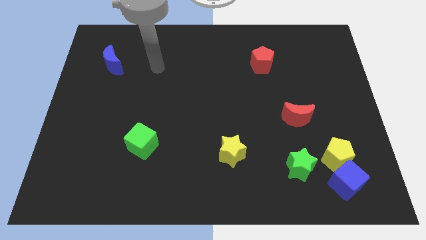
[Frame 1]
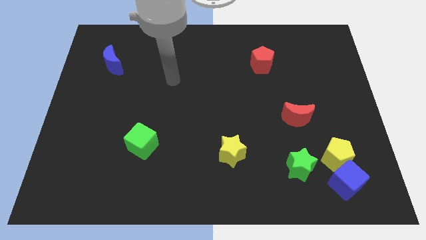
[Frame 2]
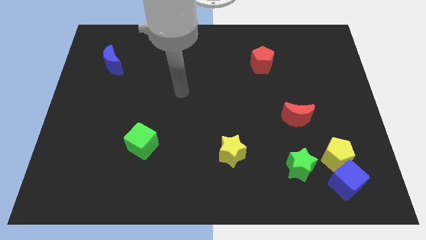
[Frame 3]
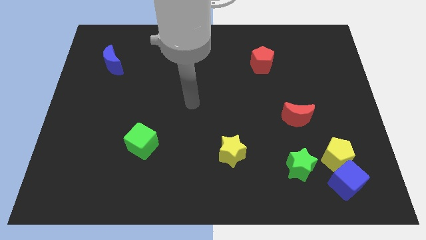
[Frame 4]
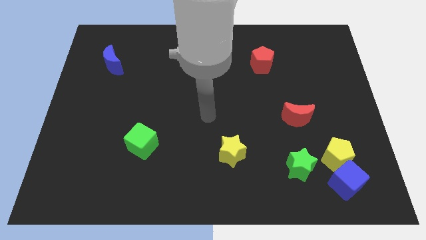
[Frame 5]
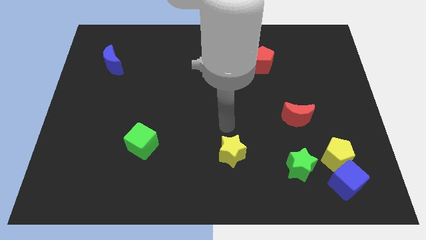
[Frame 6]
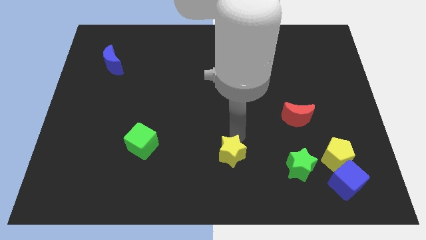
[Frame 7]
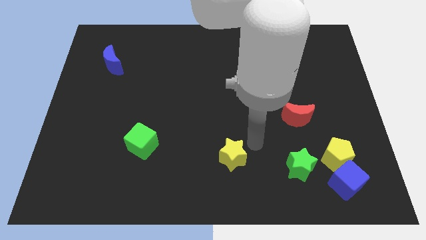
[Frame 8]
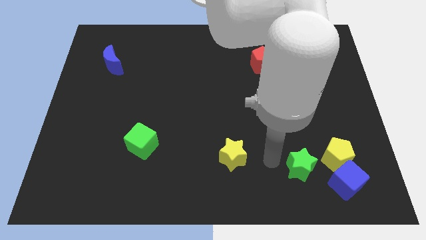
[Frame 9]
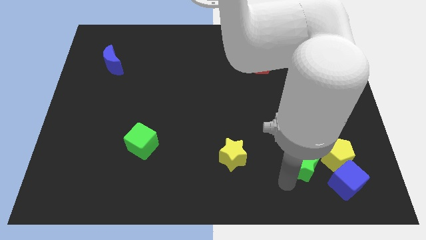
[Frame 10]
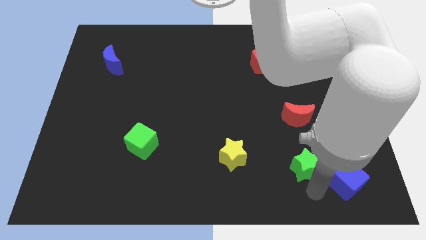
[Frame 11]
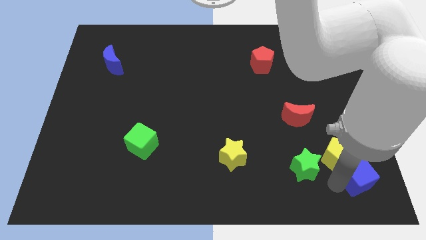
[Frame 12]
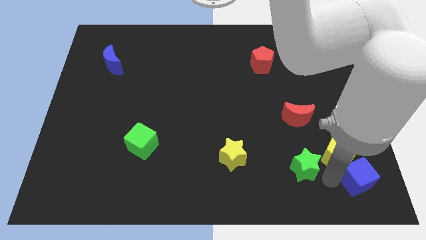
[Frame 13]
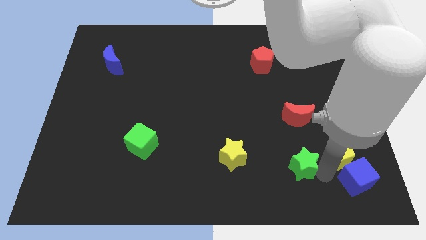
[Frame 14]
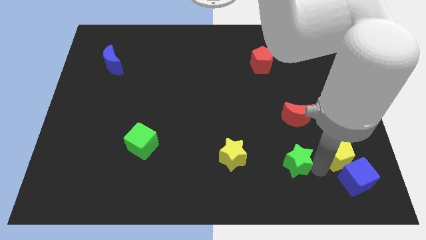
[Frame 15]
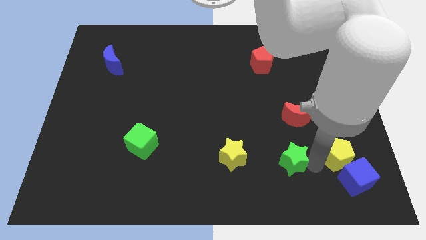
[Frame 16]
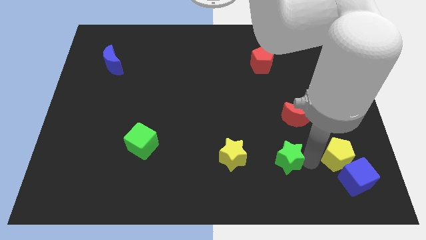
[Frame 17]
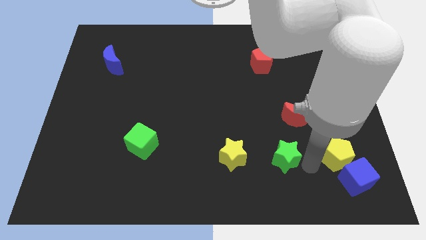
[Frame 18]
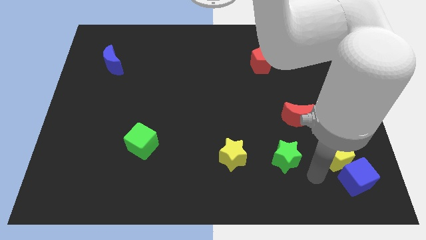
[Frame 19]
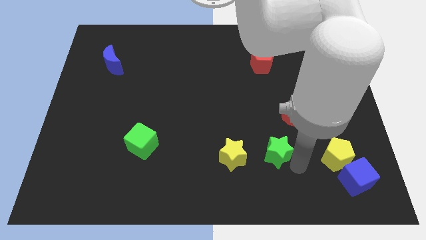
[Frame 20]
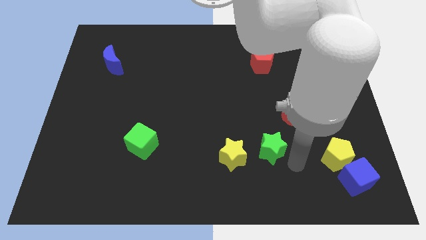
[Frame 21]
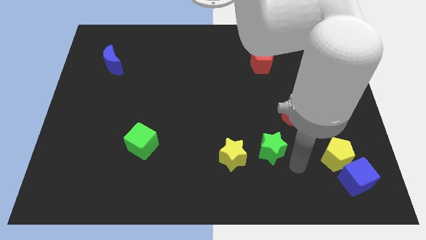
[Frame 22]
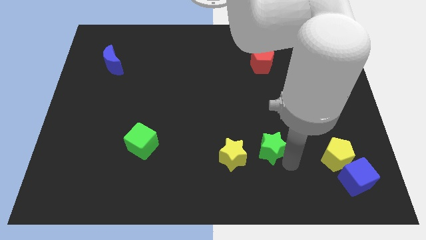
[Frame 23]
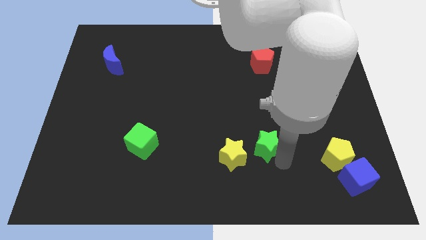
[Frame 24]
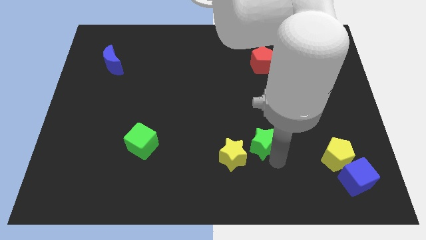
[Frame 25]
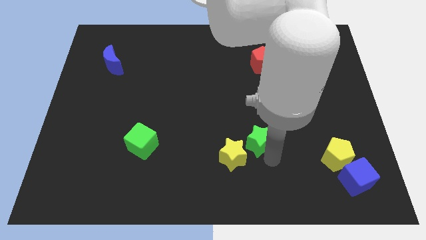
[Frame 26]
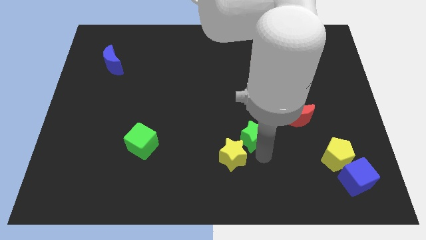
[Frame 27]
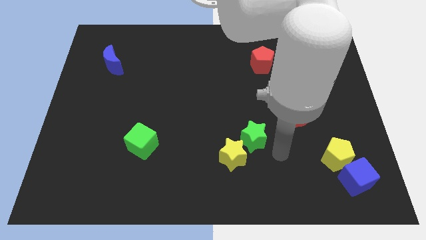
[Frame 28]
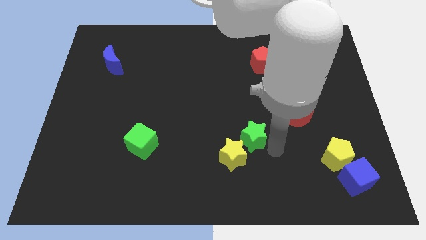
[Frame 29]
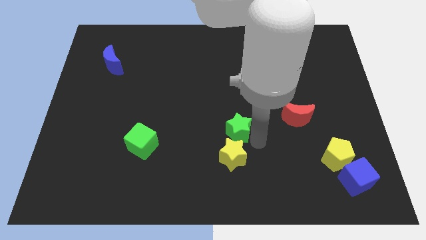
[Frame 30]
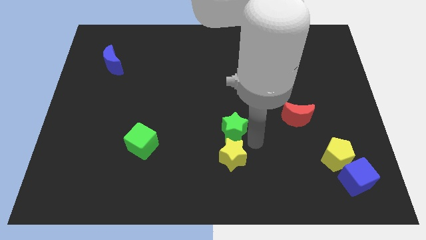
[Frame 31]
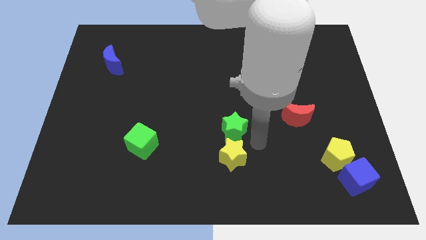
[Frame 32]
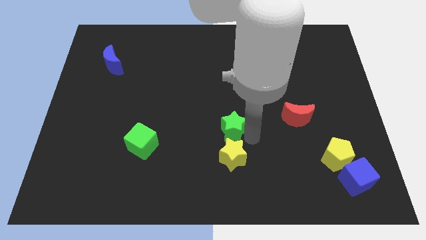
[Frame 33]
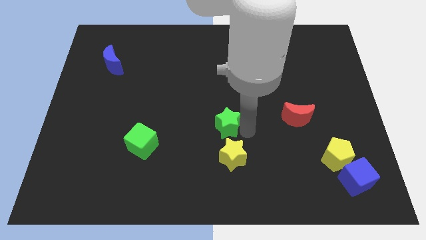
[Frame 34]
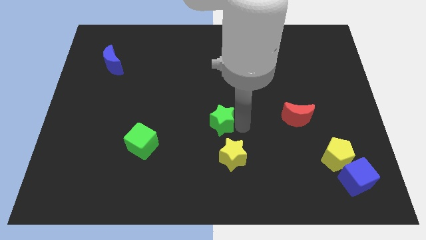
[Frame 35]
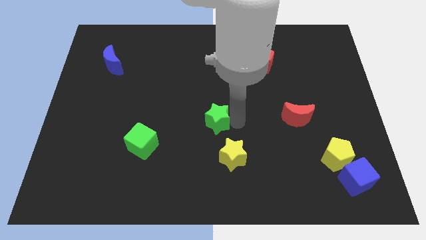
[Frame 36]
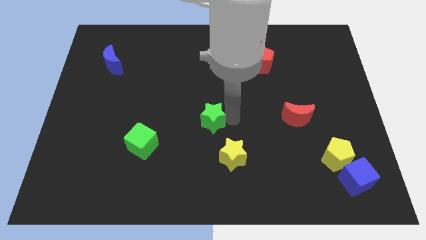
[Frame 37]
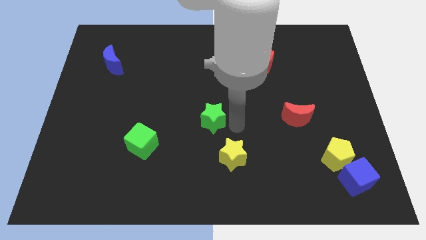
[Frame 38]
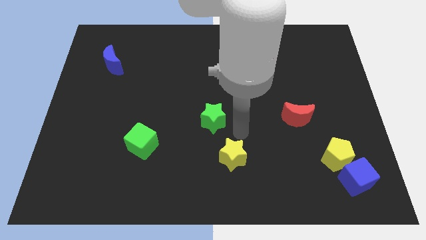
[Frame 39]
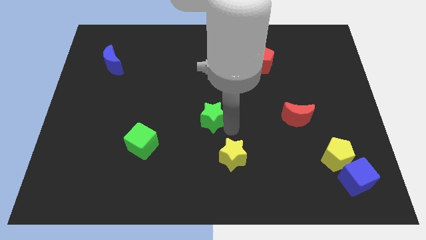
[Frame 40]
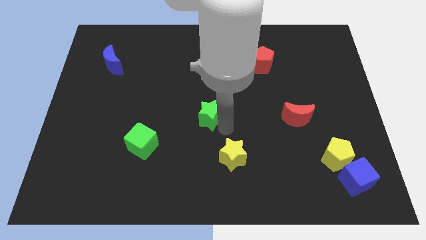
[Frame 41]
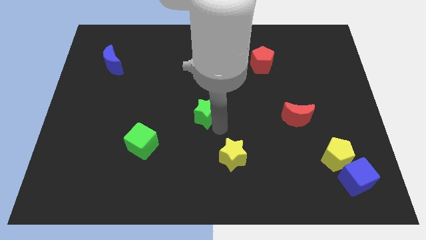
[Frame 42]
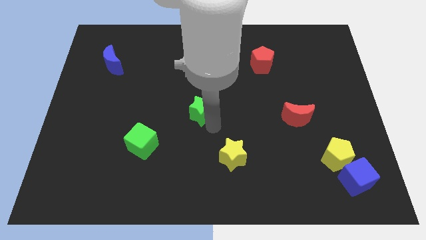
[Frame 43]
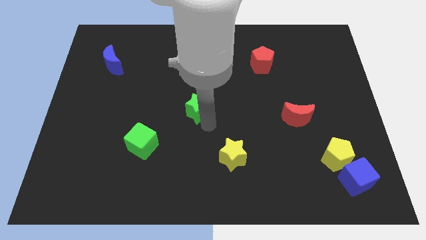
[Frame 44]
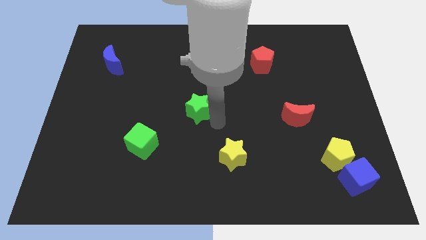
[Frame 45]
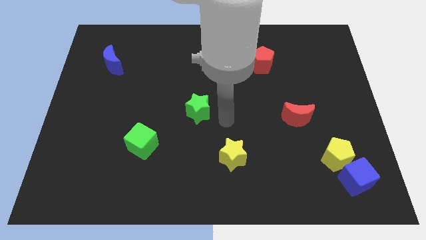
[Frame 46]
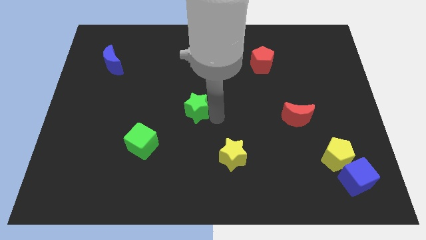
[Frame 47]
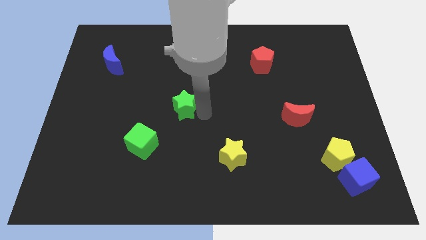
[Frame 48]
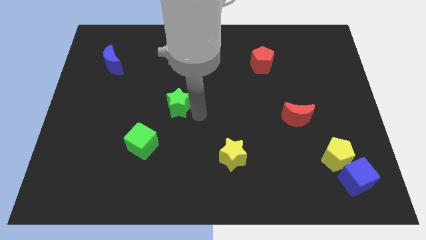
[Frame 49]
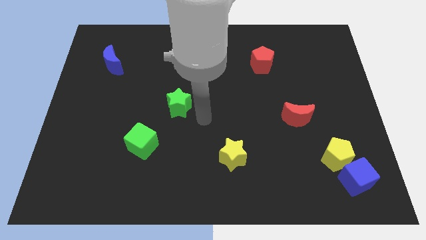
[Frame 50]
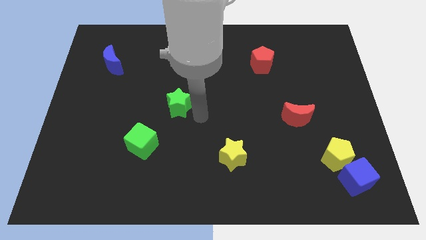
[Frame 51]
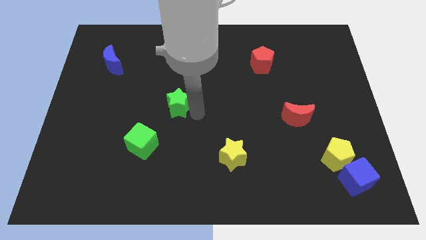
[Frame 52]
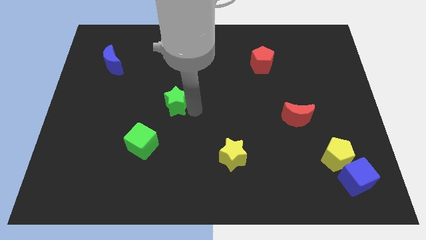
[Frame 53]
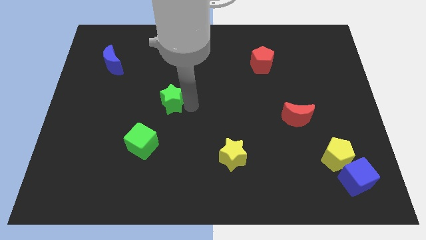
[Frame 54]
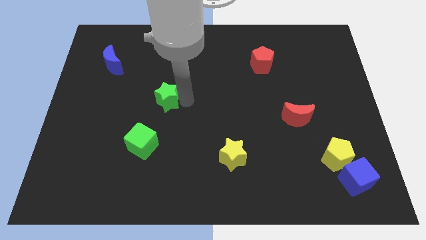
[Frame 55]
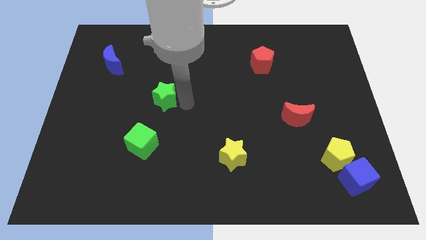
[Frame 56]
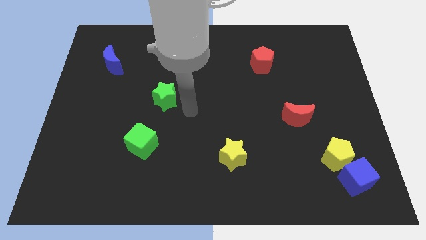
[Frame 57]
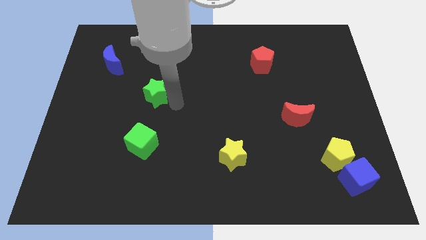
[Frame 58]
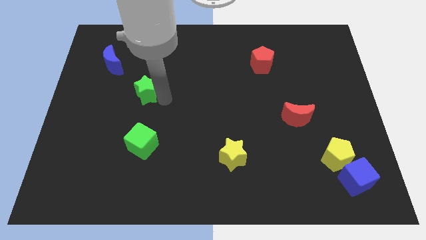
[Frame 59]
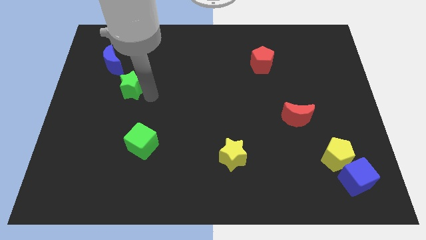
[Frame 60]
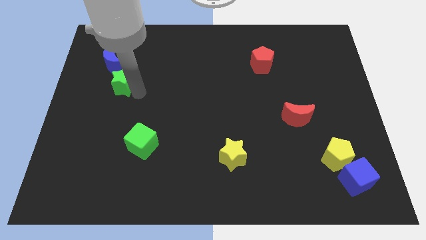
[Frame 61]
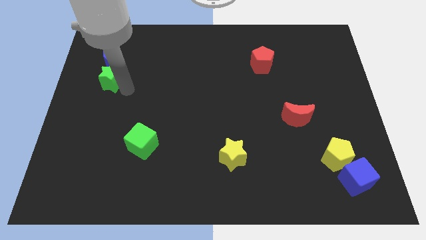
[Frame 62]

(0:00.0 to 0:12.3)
put the green star to the blue moon
